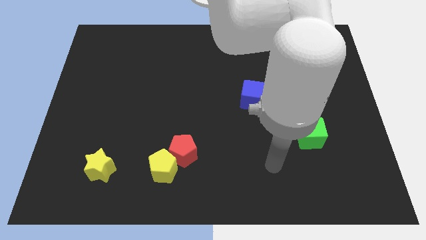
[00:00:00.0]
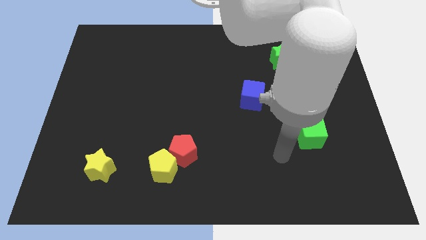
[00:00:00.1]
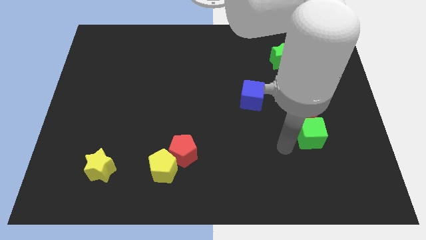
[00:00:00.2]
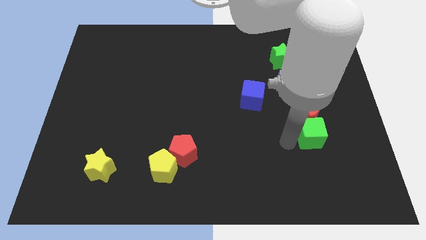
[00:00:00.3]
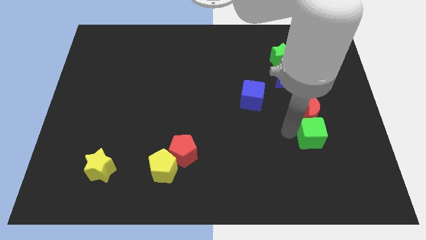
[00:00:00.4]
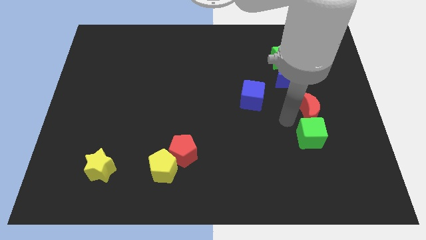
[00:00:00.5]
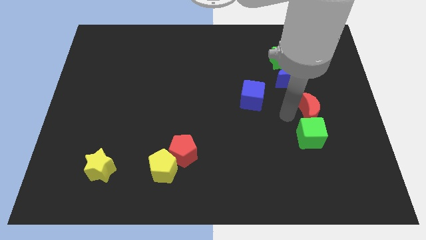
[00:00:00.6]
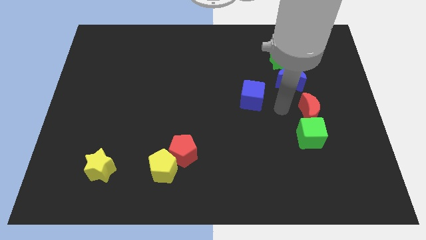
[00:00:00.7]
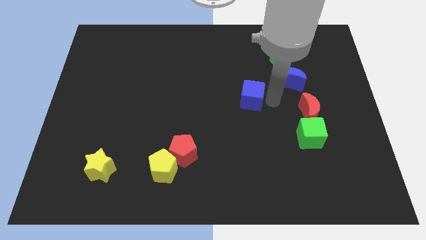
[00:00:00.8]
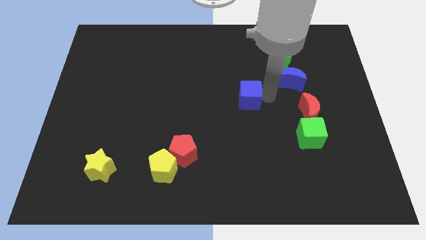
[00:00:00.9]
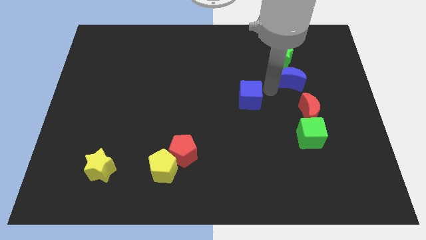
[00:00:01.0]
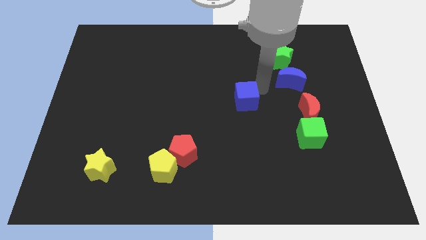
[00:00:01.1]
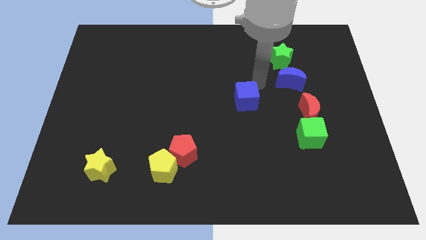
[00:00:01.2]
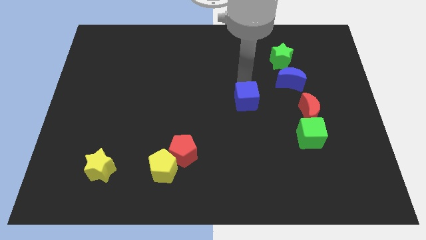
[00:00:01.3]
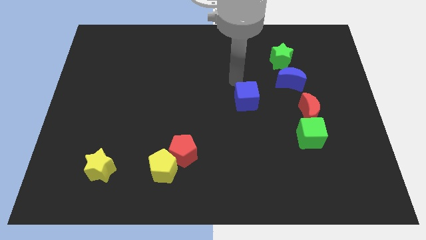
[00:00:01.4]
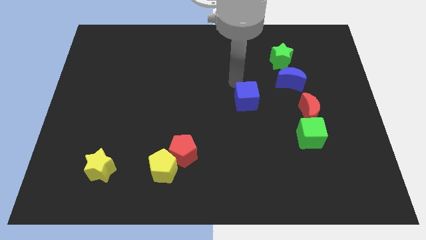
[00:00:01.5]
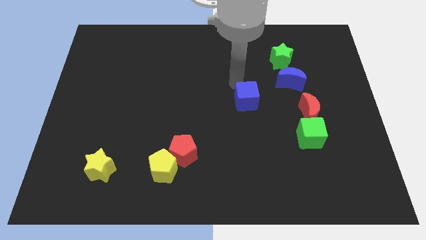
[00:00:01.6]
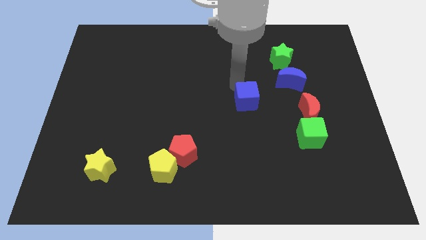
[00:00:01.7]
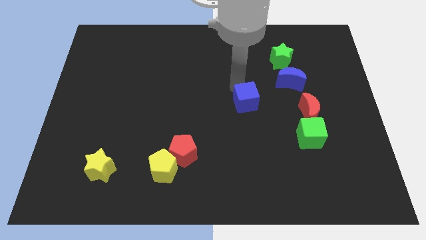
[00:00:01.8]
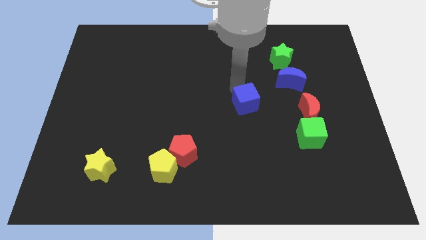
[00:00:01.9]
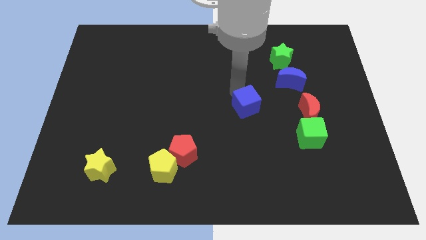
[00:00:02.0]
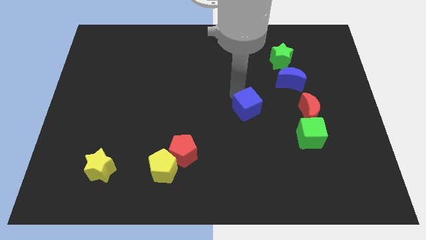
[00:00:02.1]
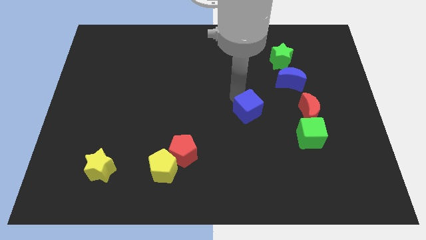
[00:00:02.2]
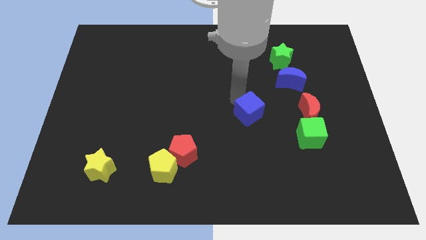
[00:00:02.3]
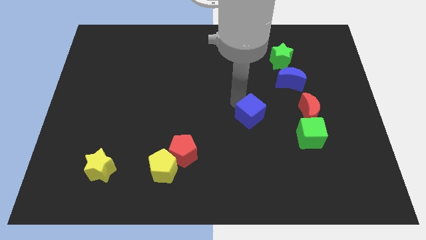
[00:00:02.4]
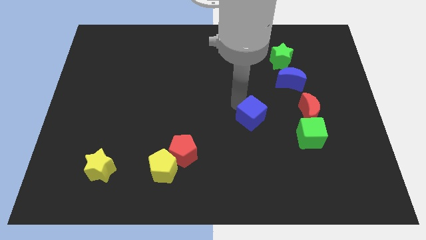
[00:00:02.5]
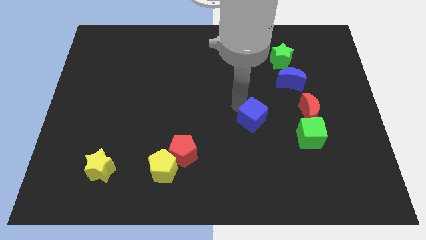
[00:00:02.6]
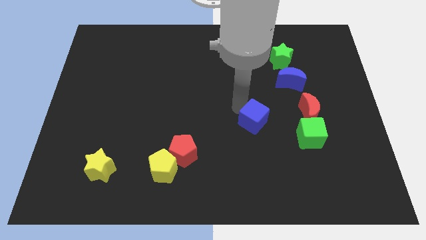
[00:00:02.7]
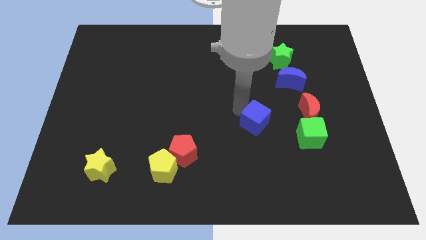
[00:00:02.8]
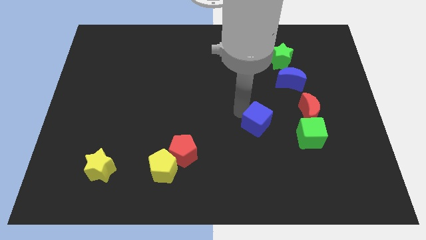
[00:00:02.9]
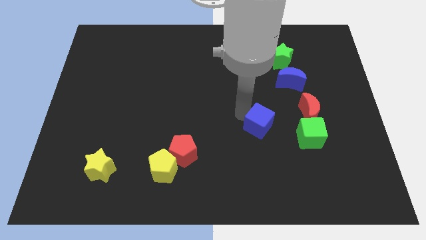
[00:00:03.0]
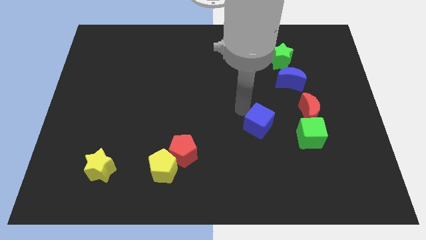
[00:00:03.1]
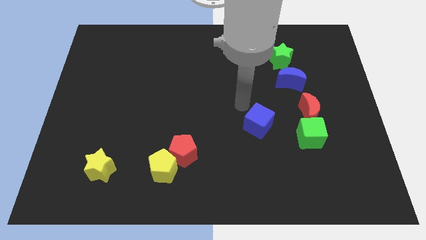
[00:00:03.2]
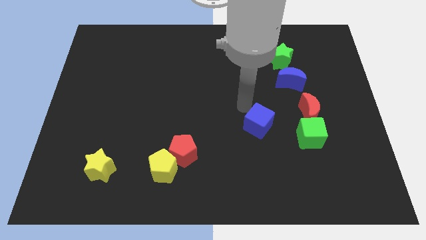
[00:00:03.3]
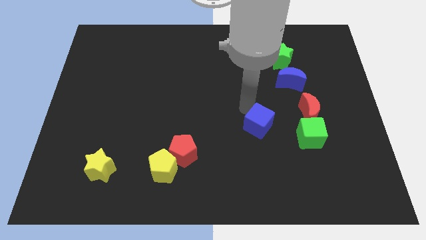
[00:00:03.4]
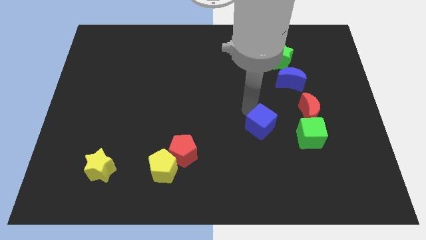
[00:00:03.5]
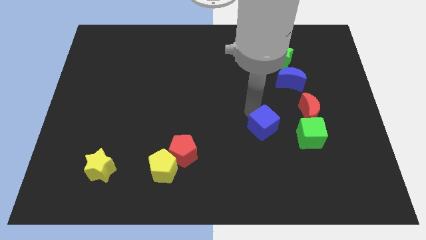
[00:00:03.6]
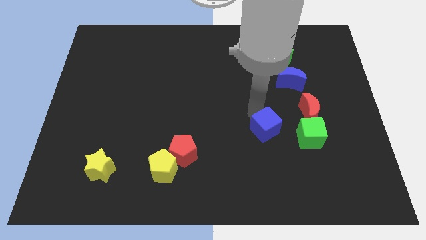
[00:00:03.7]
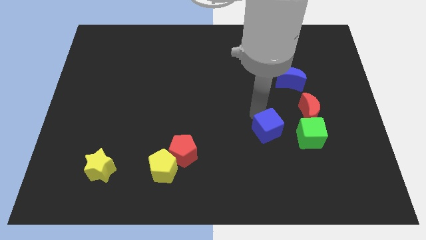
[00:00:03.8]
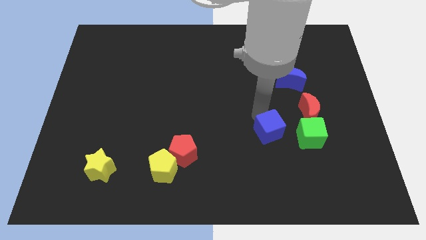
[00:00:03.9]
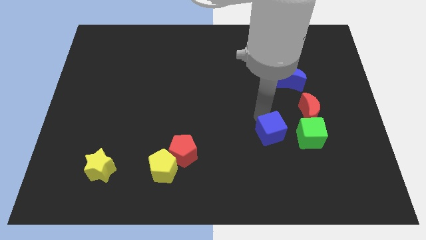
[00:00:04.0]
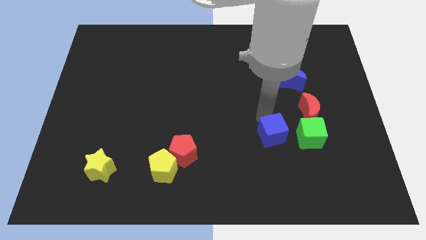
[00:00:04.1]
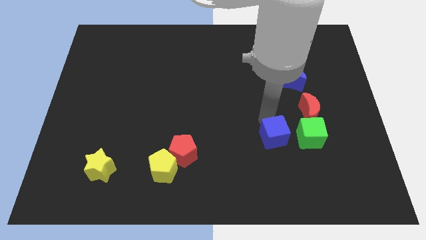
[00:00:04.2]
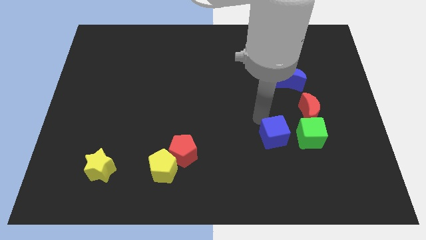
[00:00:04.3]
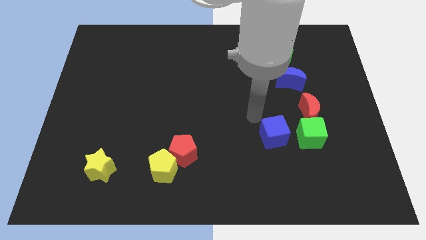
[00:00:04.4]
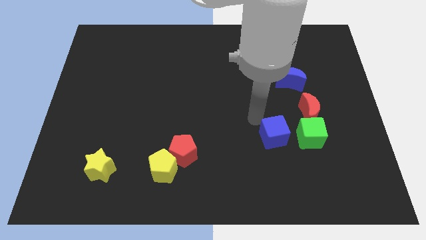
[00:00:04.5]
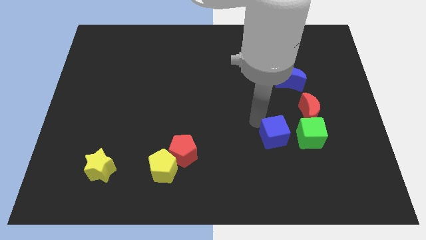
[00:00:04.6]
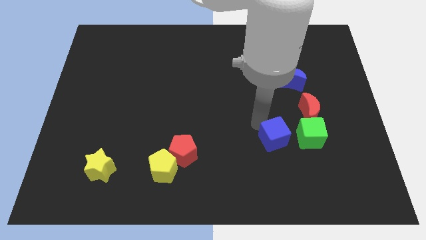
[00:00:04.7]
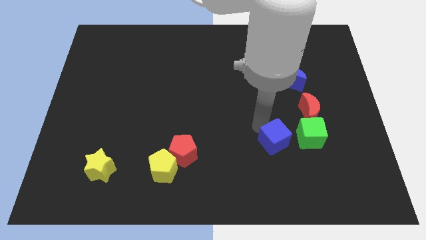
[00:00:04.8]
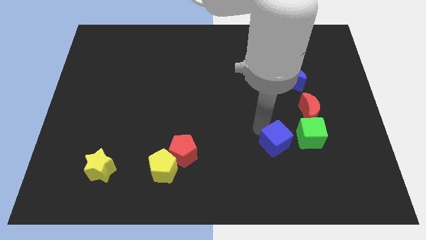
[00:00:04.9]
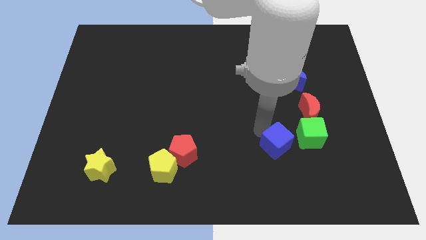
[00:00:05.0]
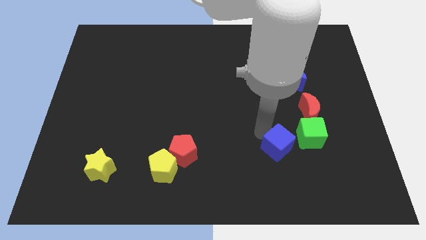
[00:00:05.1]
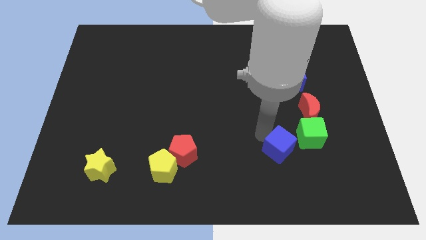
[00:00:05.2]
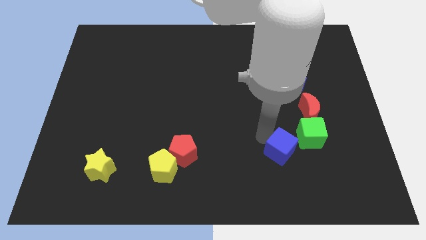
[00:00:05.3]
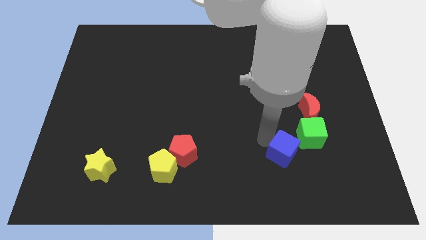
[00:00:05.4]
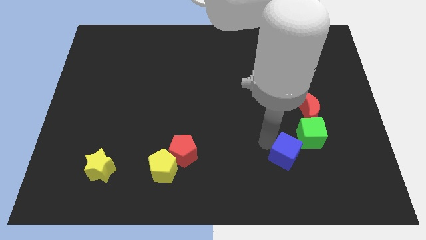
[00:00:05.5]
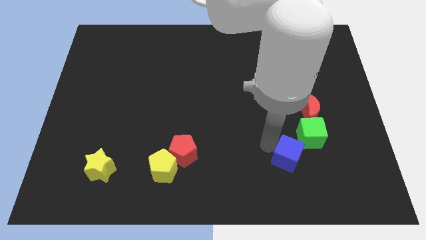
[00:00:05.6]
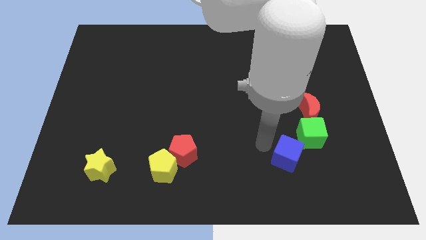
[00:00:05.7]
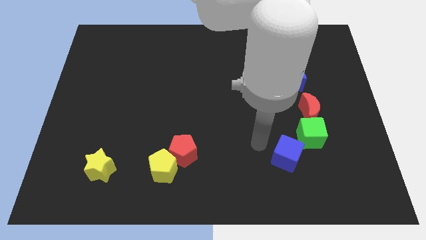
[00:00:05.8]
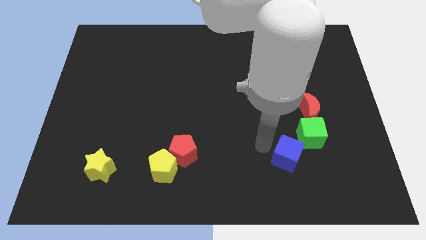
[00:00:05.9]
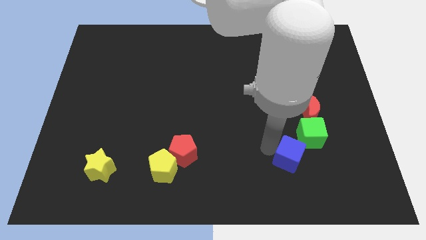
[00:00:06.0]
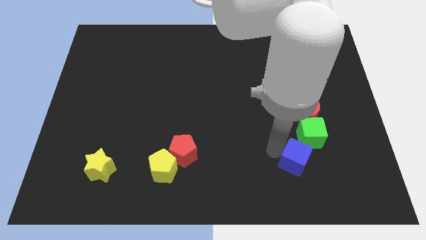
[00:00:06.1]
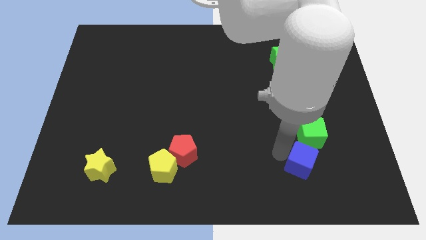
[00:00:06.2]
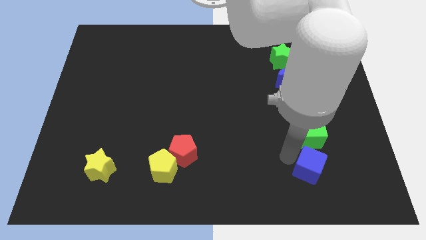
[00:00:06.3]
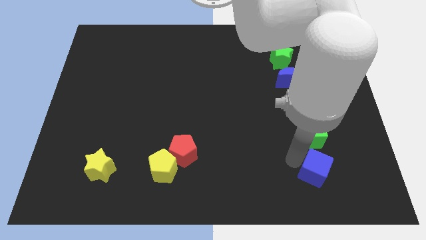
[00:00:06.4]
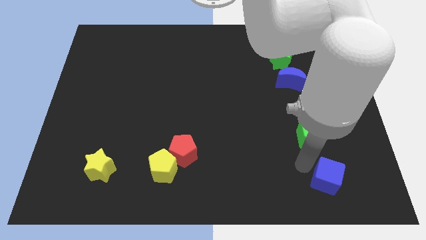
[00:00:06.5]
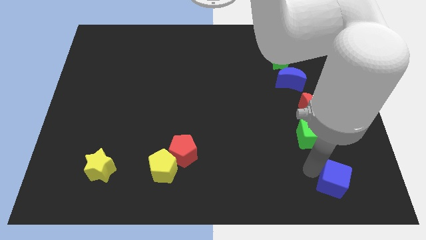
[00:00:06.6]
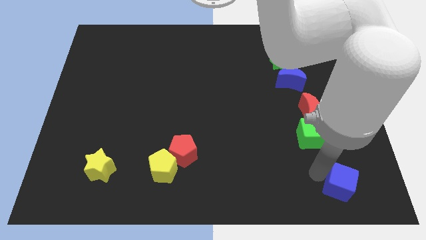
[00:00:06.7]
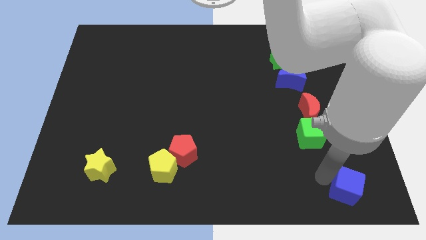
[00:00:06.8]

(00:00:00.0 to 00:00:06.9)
push the blue cube to the bottom right corner
